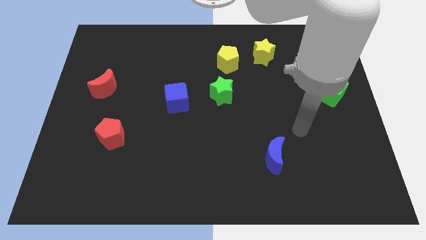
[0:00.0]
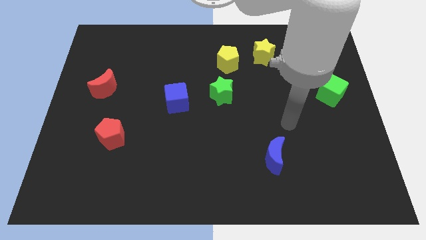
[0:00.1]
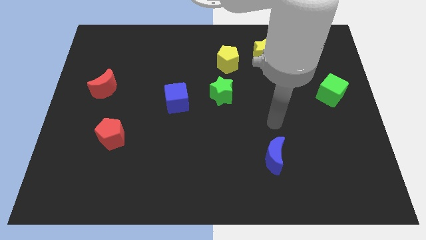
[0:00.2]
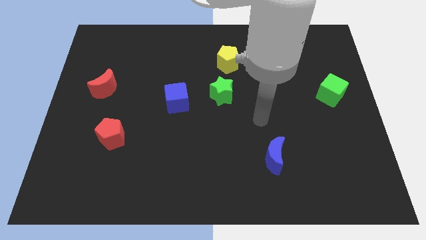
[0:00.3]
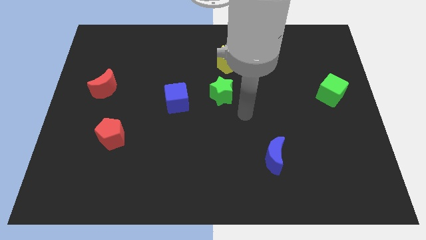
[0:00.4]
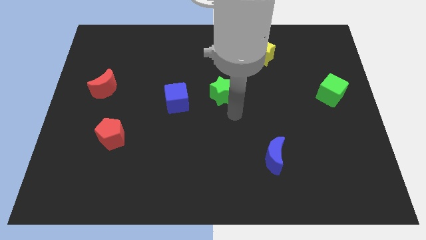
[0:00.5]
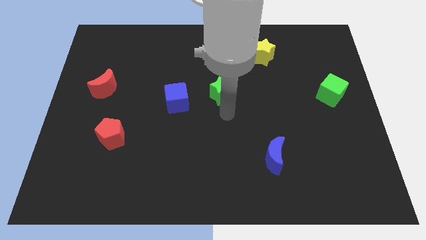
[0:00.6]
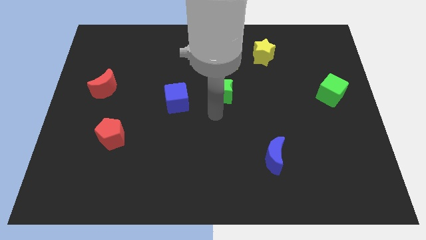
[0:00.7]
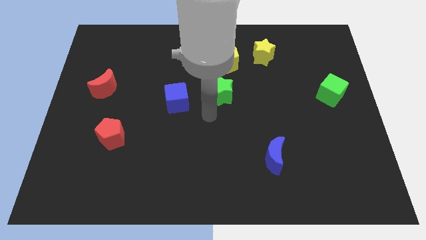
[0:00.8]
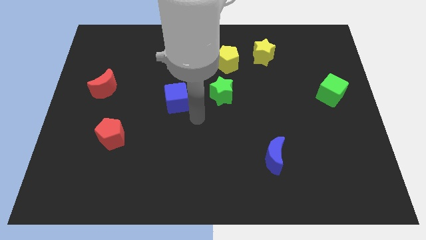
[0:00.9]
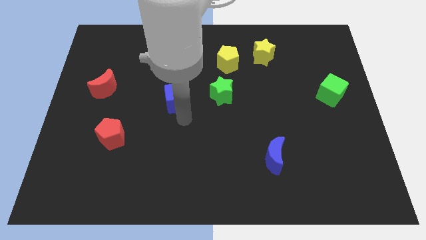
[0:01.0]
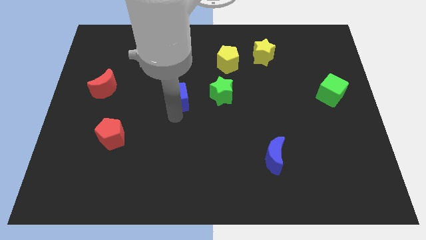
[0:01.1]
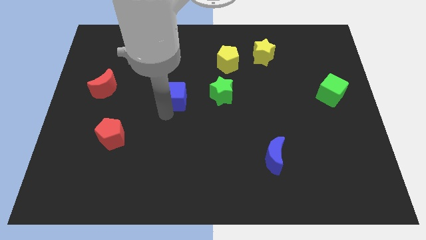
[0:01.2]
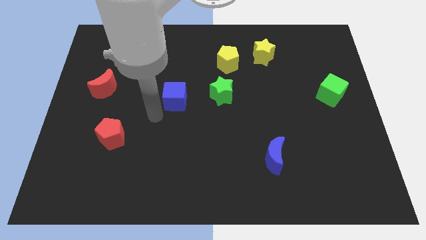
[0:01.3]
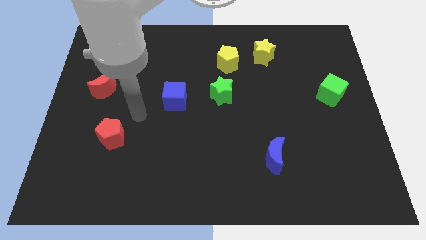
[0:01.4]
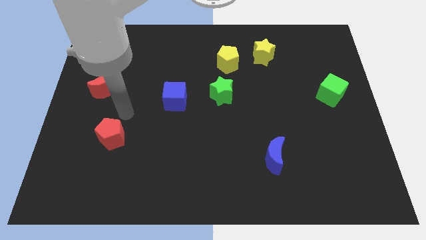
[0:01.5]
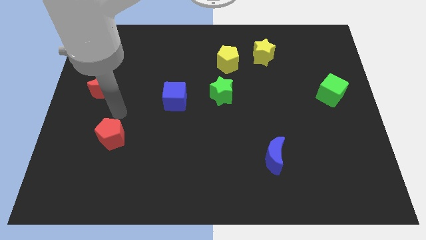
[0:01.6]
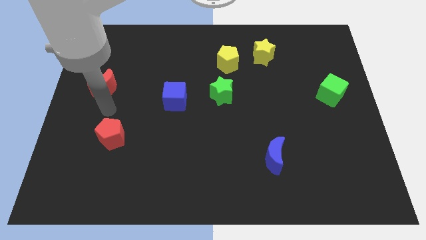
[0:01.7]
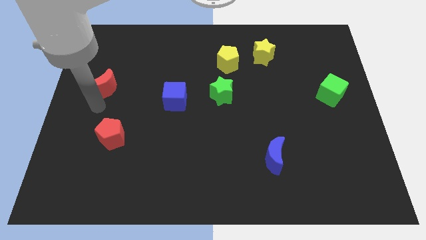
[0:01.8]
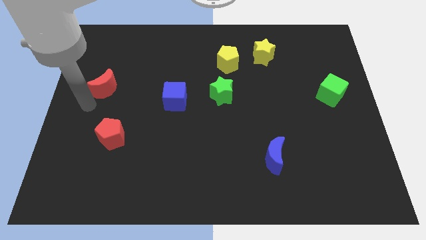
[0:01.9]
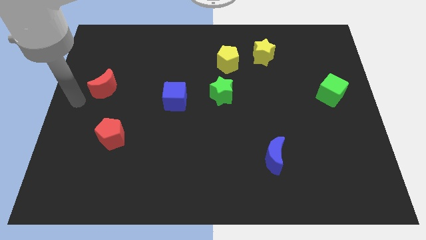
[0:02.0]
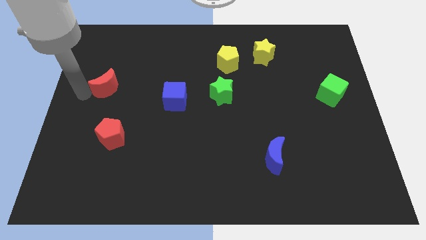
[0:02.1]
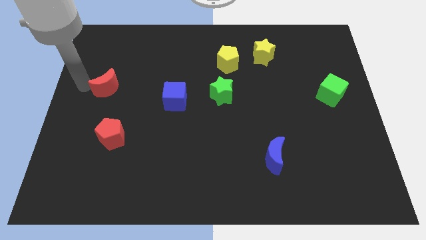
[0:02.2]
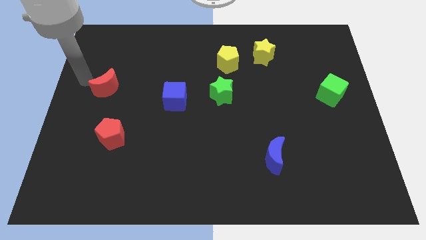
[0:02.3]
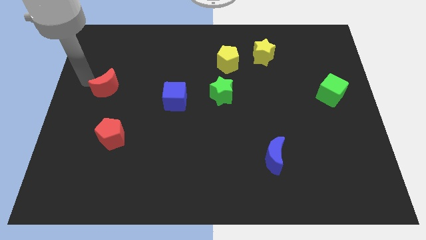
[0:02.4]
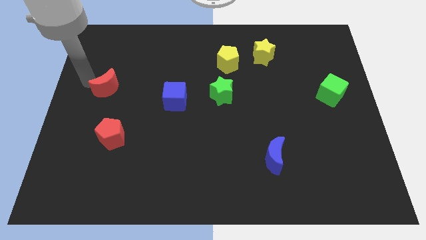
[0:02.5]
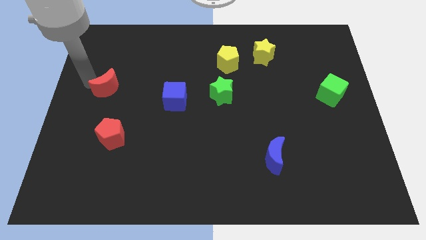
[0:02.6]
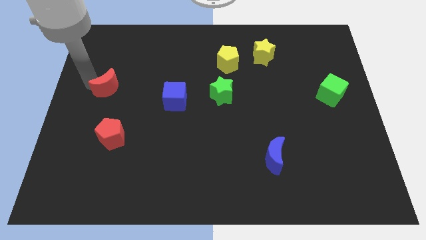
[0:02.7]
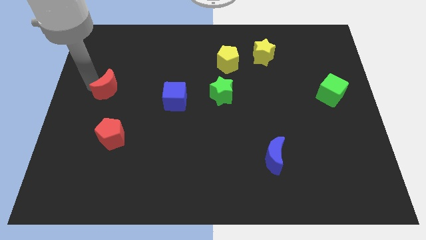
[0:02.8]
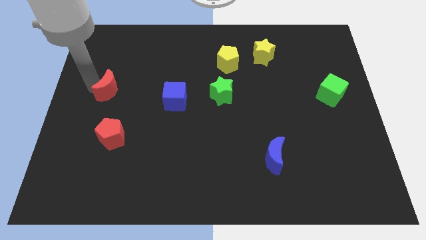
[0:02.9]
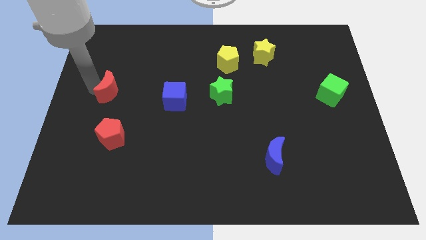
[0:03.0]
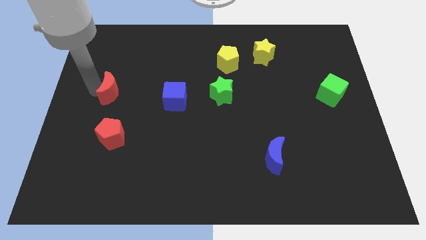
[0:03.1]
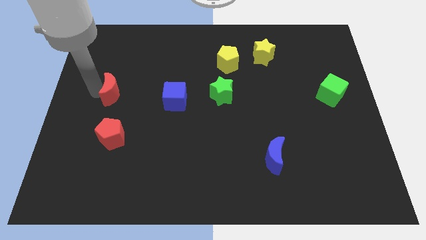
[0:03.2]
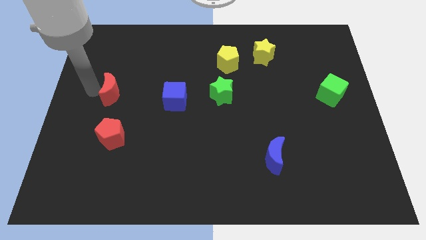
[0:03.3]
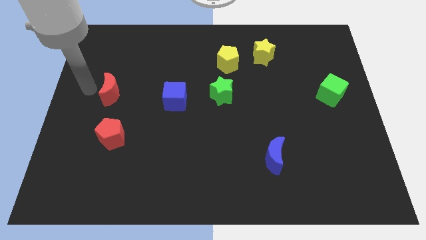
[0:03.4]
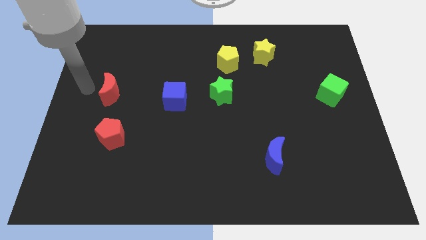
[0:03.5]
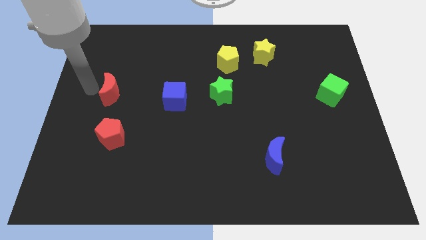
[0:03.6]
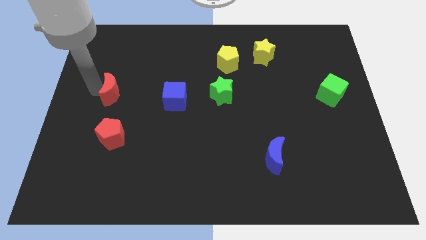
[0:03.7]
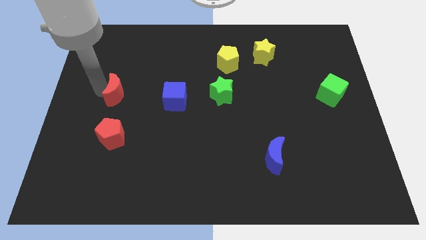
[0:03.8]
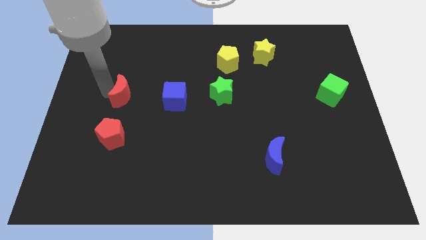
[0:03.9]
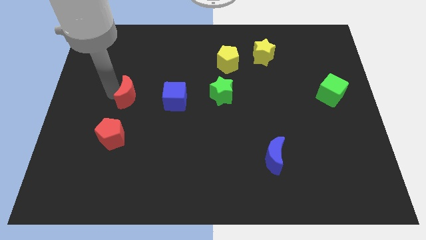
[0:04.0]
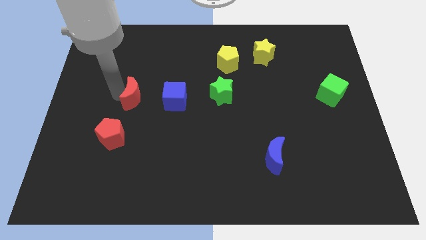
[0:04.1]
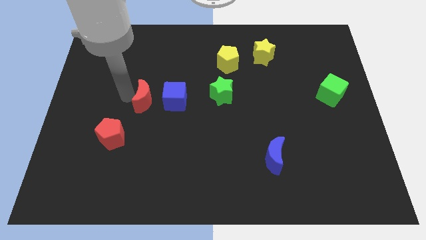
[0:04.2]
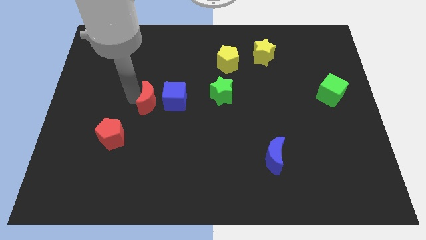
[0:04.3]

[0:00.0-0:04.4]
put the red moon towards the blue cube

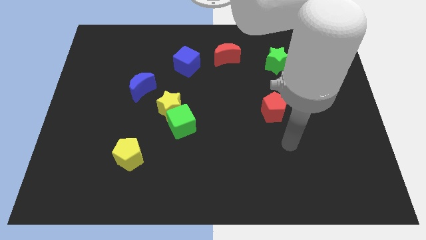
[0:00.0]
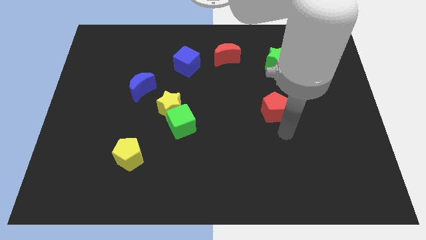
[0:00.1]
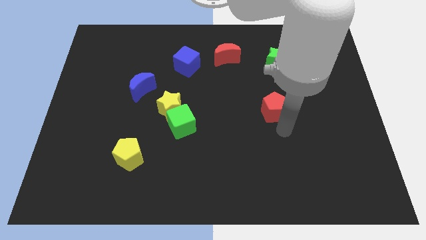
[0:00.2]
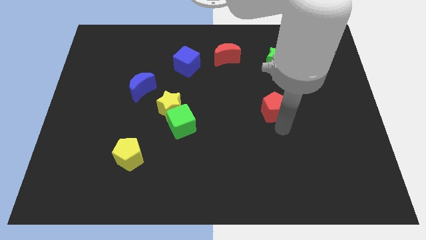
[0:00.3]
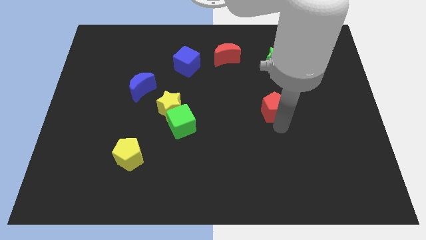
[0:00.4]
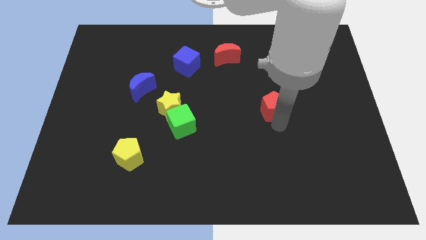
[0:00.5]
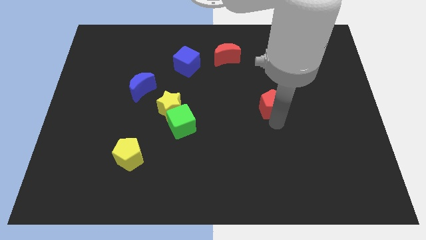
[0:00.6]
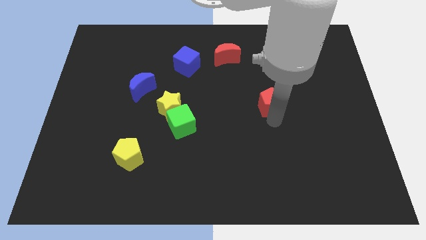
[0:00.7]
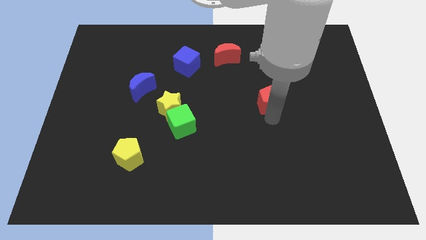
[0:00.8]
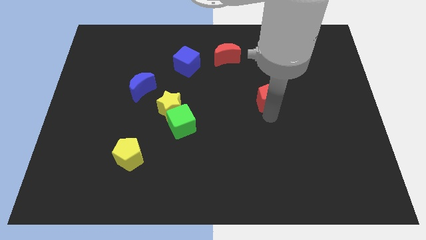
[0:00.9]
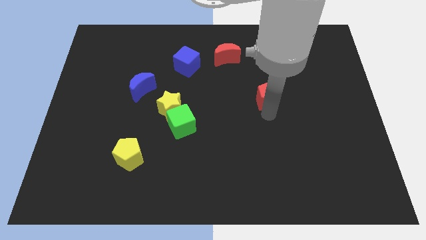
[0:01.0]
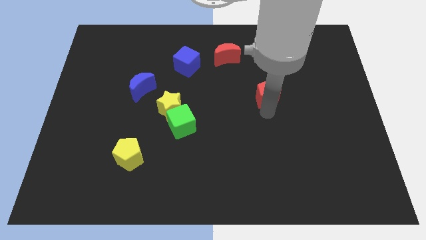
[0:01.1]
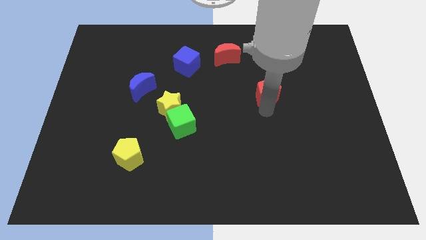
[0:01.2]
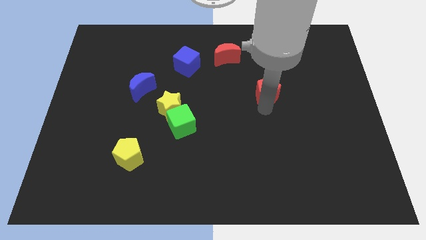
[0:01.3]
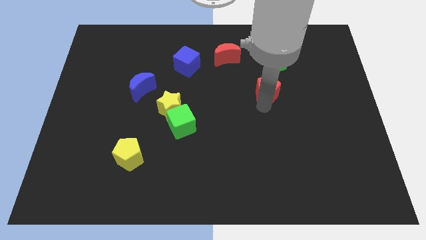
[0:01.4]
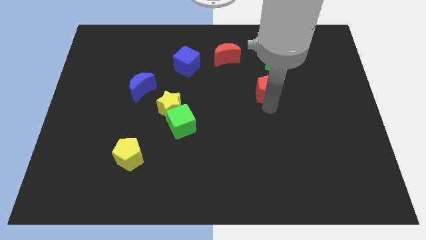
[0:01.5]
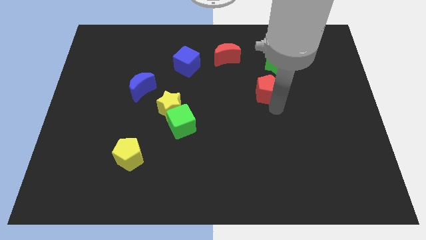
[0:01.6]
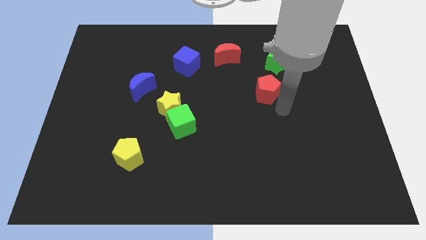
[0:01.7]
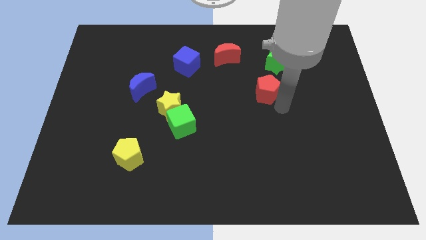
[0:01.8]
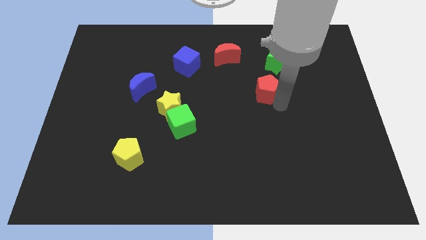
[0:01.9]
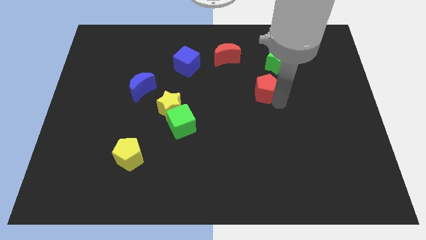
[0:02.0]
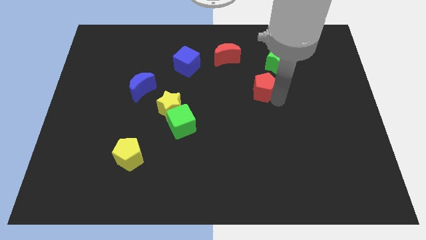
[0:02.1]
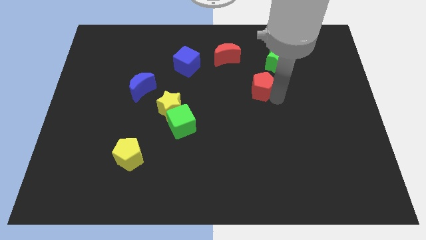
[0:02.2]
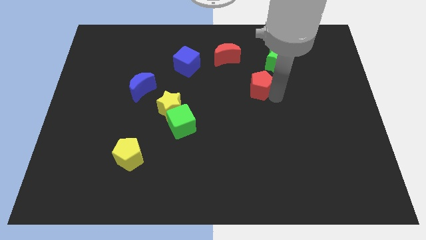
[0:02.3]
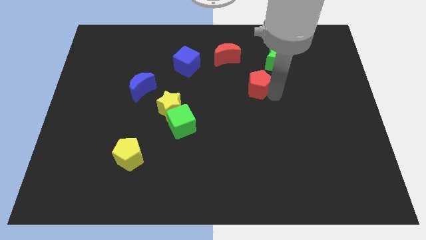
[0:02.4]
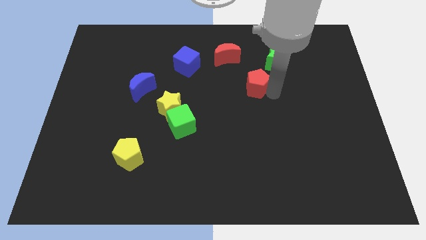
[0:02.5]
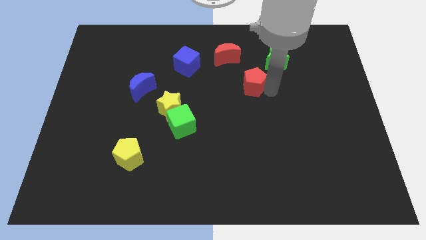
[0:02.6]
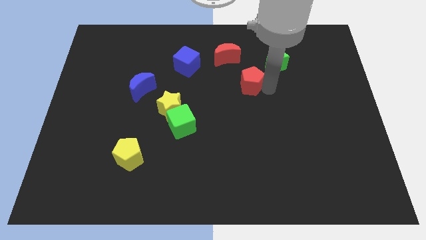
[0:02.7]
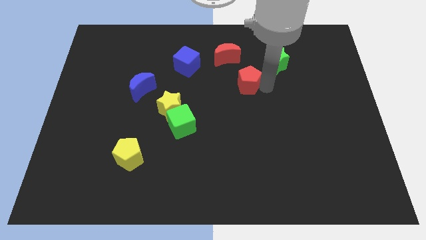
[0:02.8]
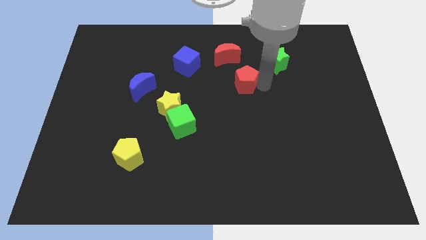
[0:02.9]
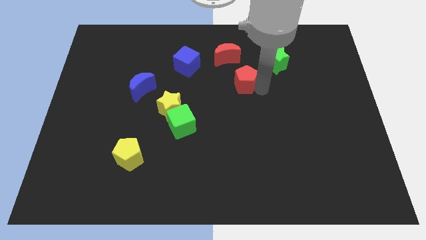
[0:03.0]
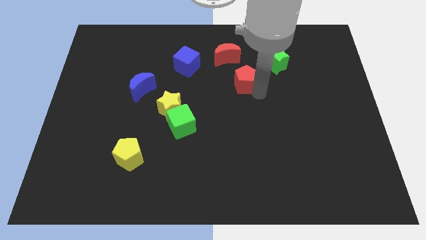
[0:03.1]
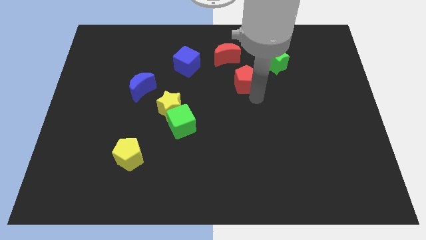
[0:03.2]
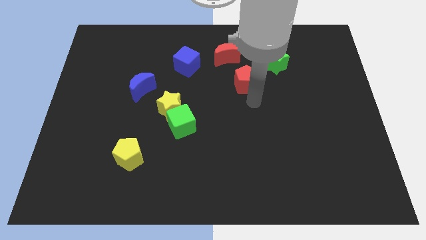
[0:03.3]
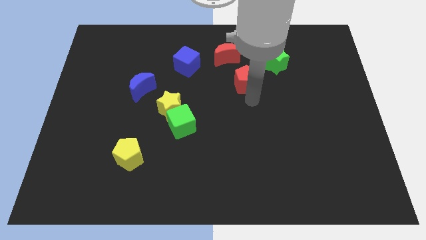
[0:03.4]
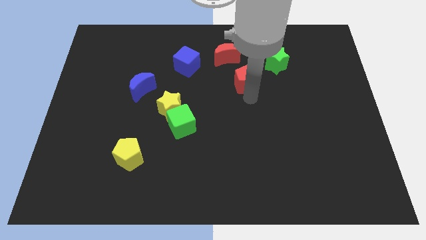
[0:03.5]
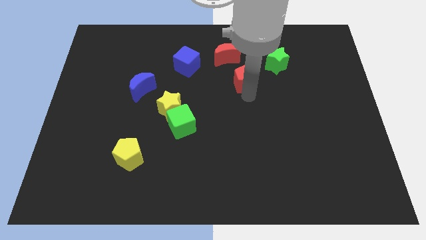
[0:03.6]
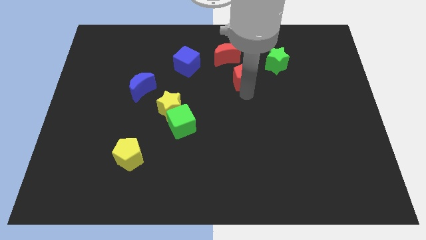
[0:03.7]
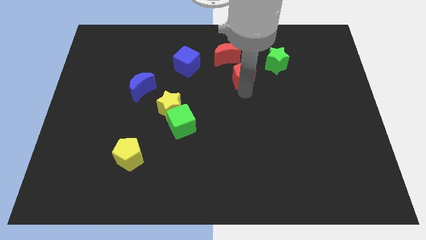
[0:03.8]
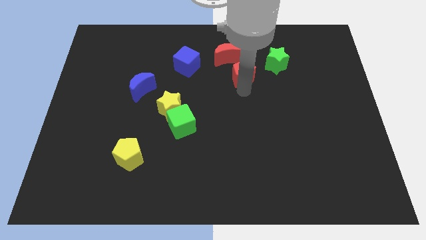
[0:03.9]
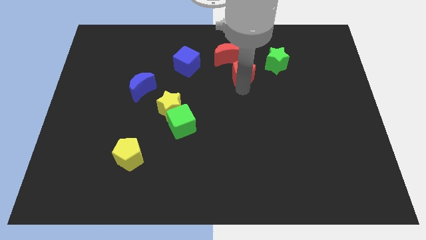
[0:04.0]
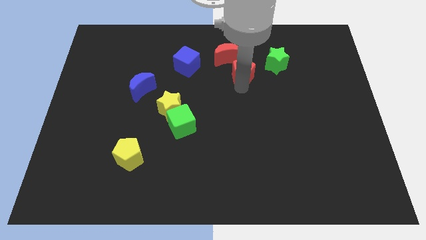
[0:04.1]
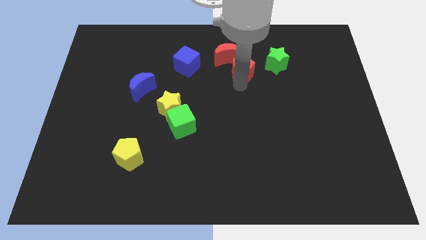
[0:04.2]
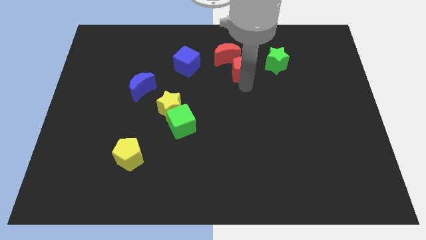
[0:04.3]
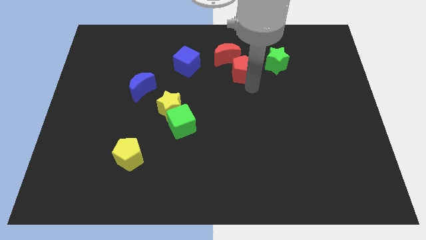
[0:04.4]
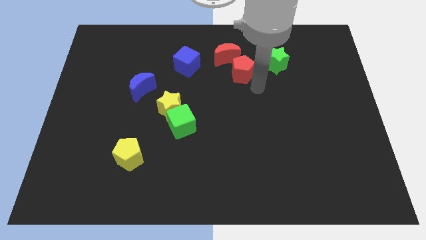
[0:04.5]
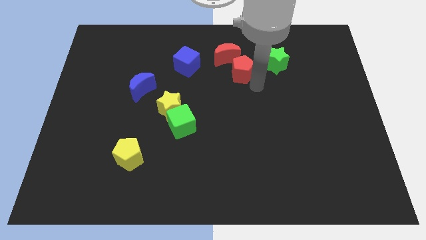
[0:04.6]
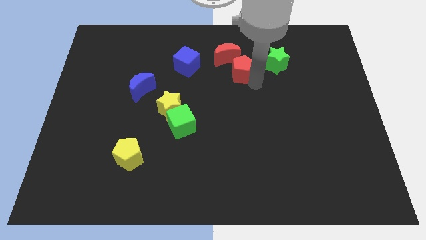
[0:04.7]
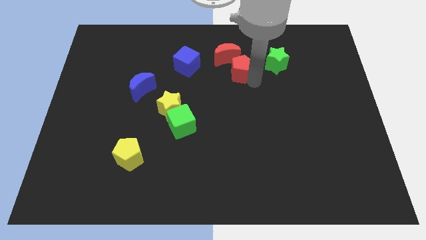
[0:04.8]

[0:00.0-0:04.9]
slide the red pentagon close to the red moon
